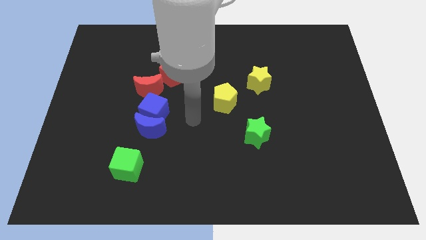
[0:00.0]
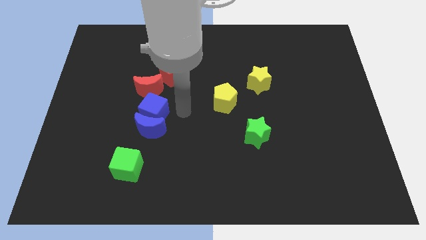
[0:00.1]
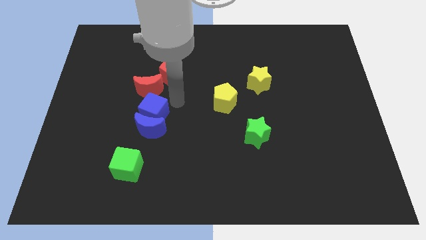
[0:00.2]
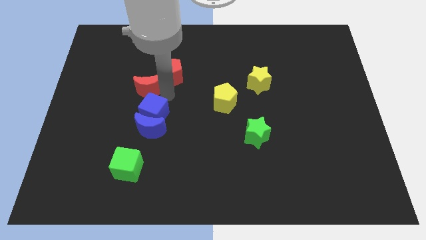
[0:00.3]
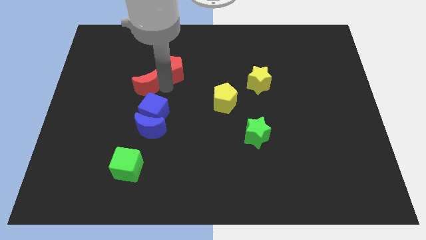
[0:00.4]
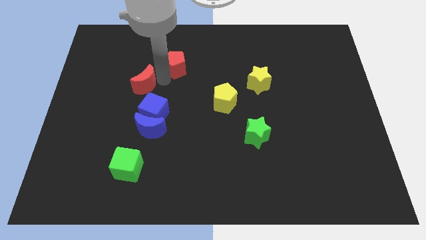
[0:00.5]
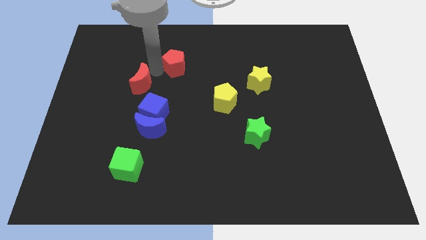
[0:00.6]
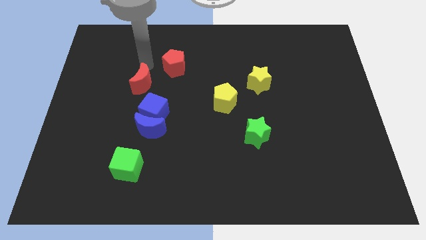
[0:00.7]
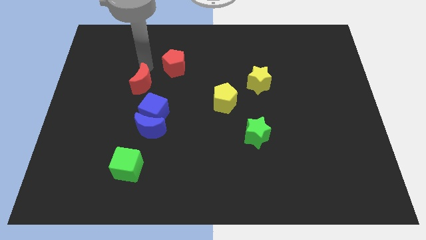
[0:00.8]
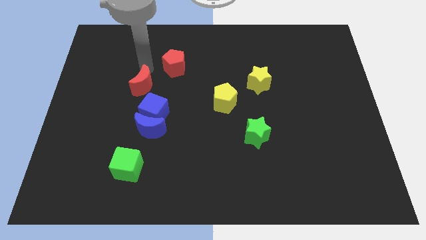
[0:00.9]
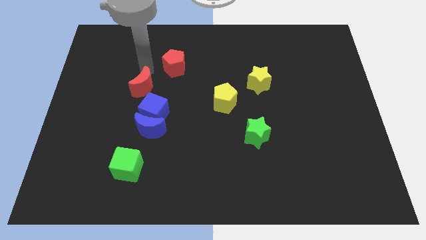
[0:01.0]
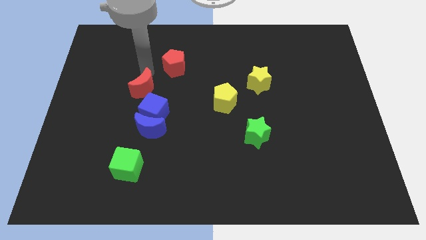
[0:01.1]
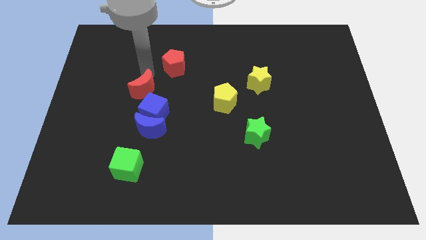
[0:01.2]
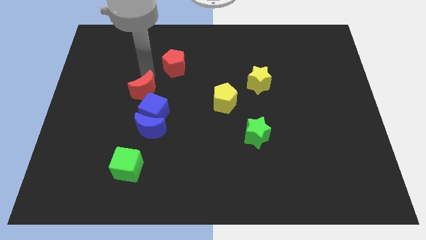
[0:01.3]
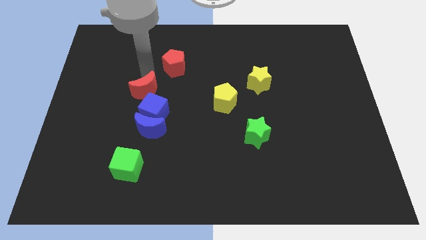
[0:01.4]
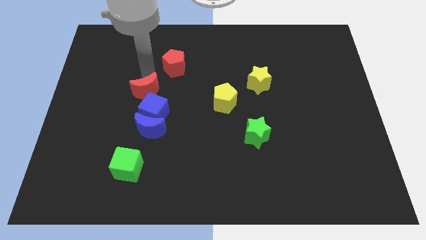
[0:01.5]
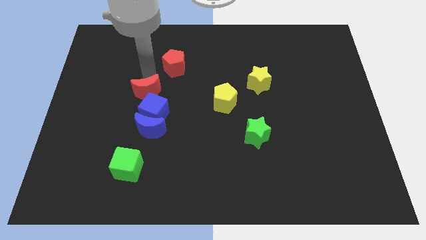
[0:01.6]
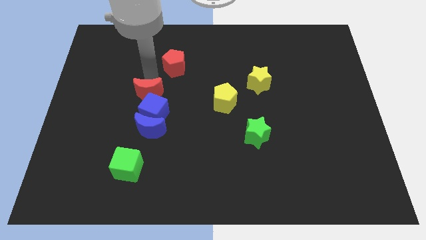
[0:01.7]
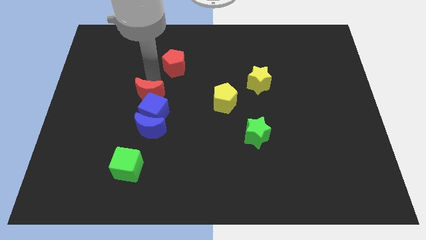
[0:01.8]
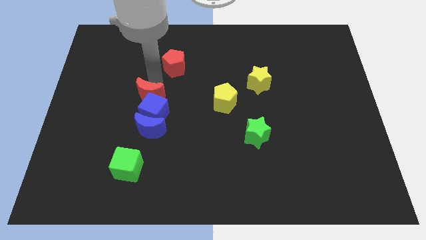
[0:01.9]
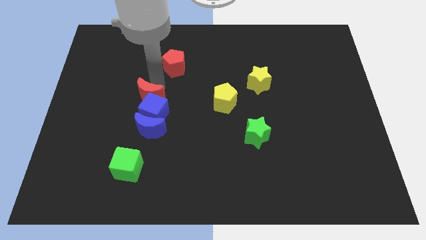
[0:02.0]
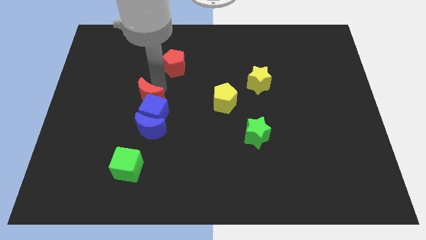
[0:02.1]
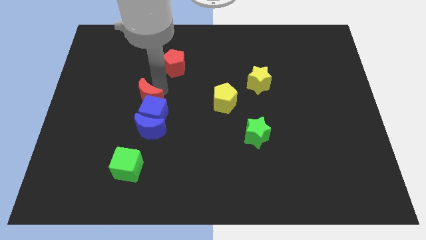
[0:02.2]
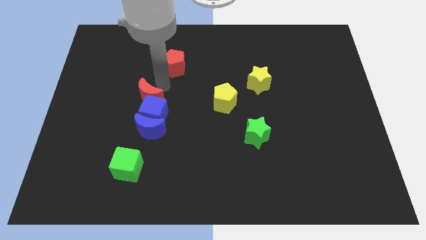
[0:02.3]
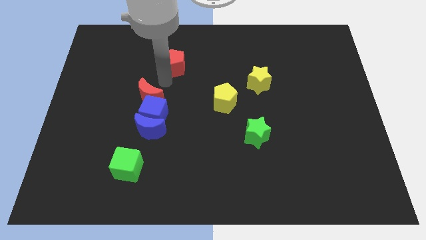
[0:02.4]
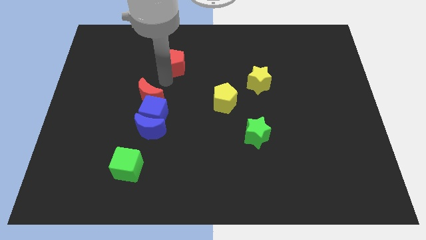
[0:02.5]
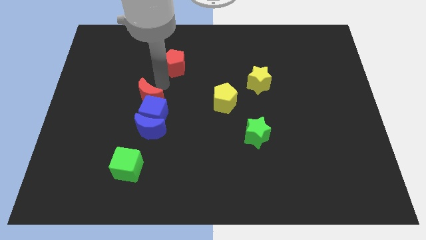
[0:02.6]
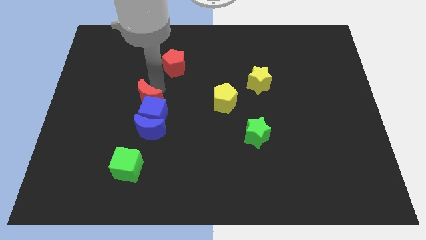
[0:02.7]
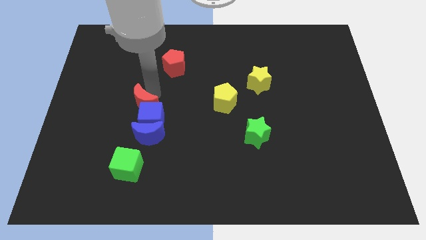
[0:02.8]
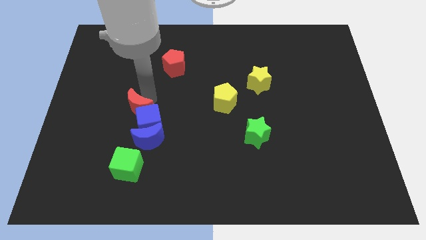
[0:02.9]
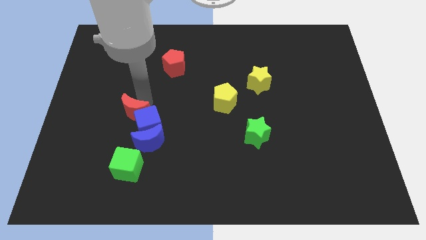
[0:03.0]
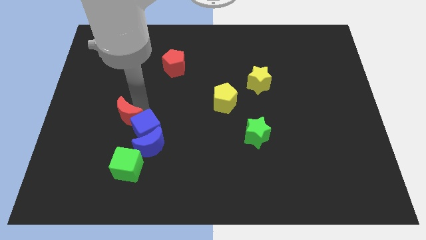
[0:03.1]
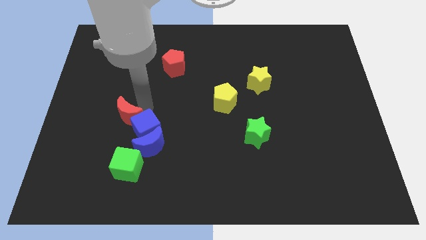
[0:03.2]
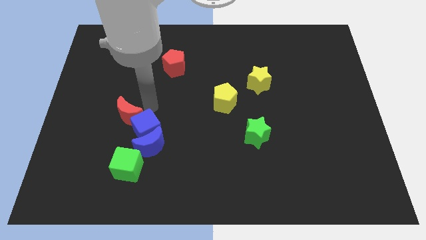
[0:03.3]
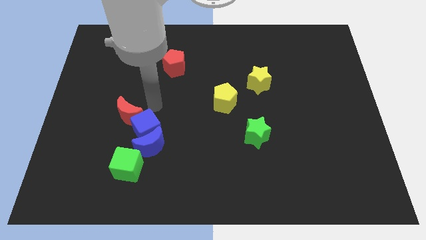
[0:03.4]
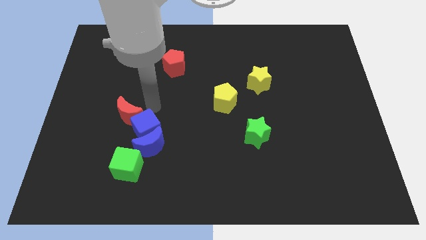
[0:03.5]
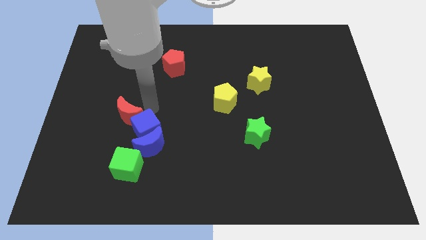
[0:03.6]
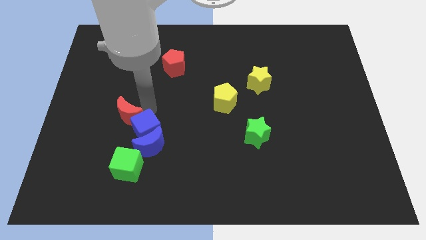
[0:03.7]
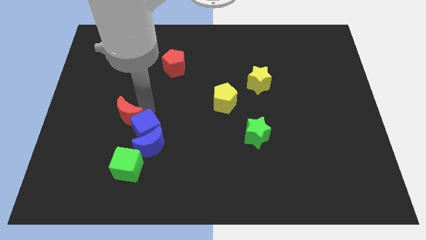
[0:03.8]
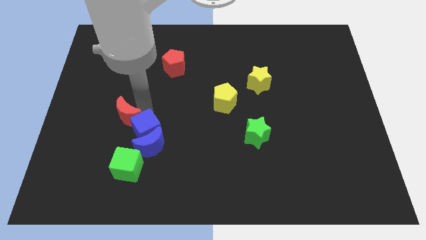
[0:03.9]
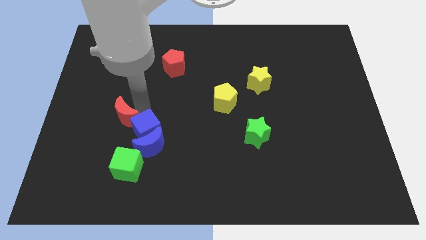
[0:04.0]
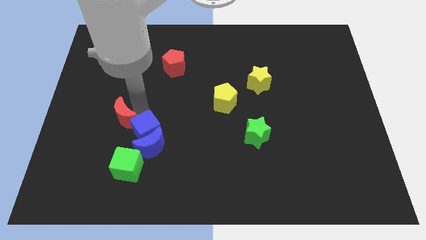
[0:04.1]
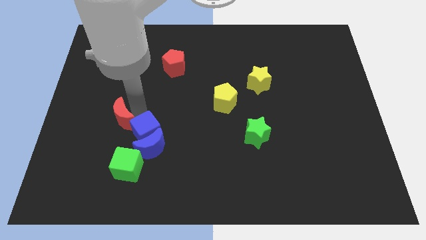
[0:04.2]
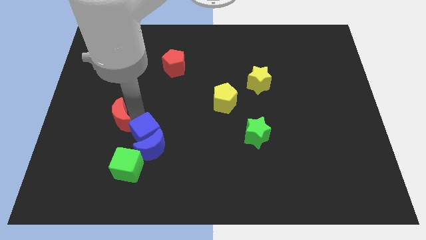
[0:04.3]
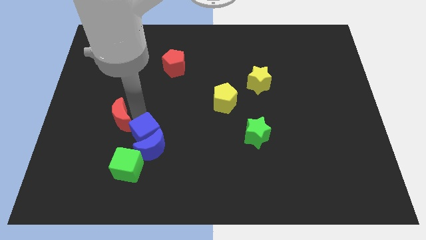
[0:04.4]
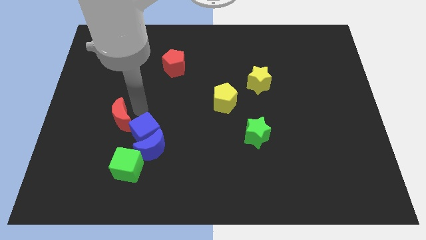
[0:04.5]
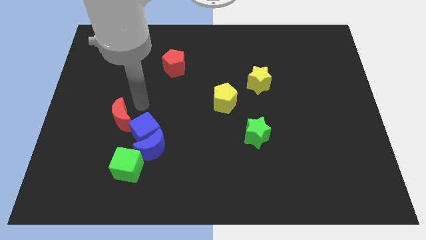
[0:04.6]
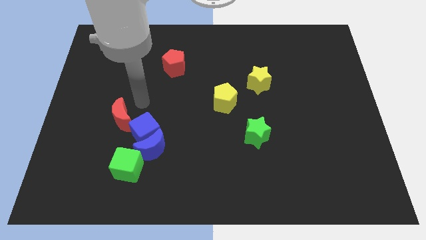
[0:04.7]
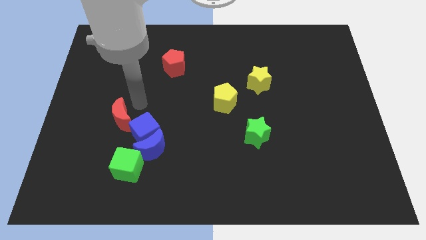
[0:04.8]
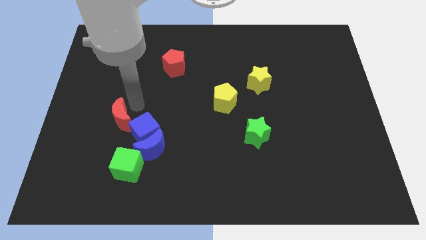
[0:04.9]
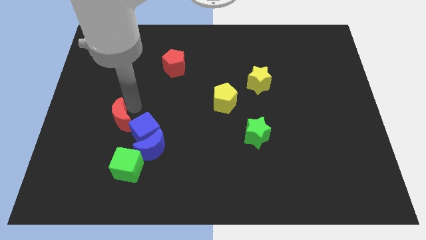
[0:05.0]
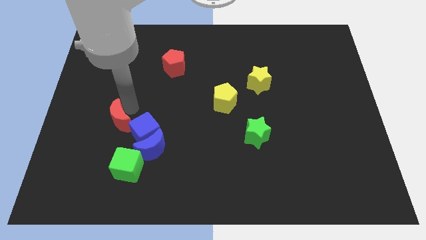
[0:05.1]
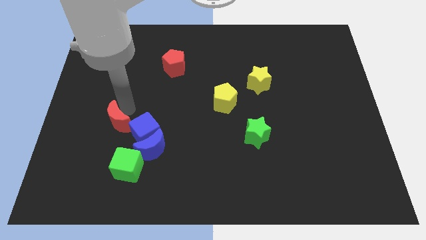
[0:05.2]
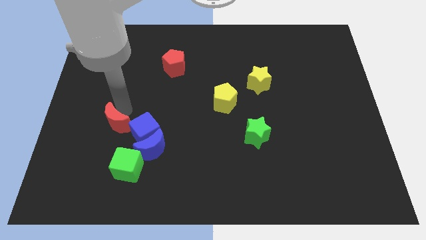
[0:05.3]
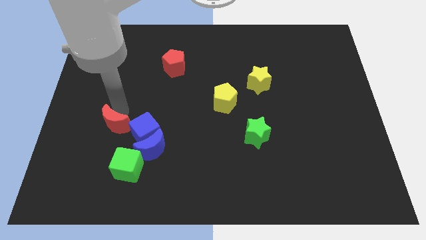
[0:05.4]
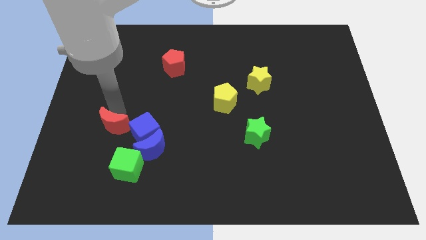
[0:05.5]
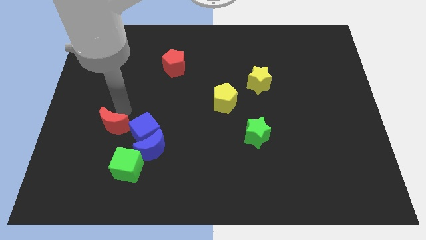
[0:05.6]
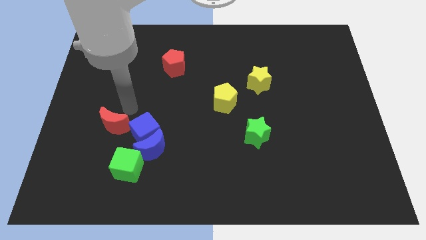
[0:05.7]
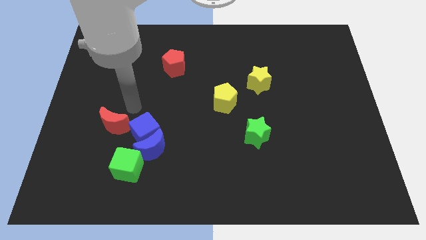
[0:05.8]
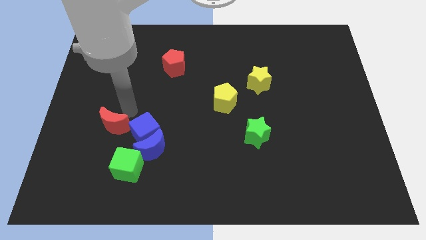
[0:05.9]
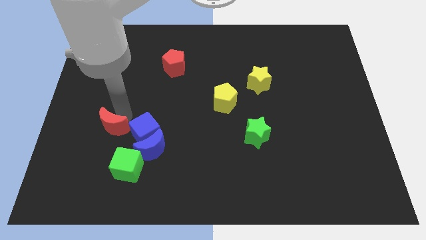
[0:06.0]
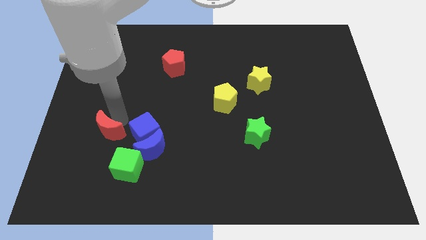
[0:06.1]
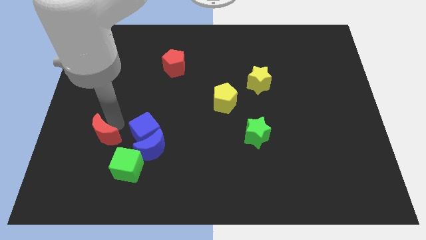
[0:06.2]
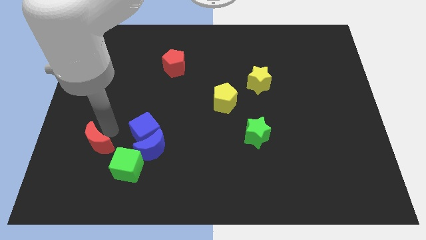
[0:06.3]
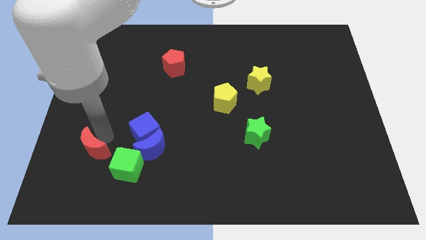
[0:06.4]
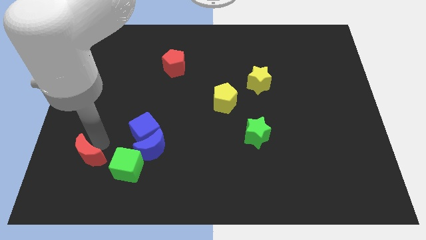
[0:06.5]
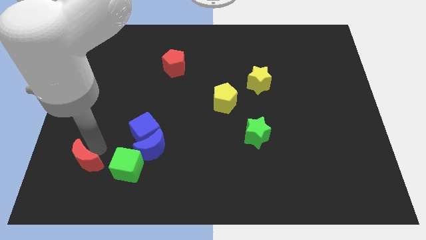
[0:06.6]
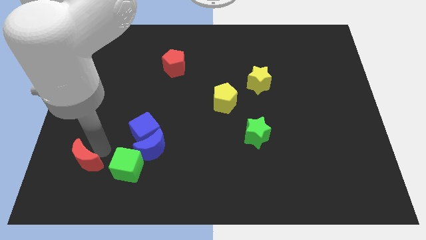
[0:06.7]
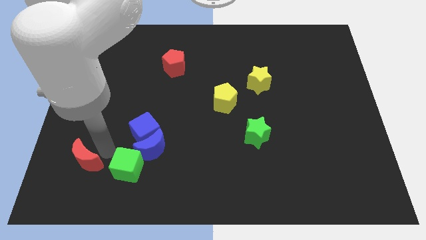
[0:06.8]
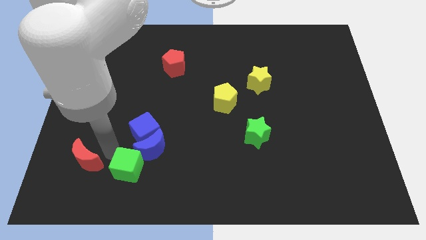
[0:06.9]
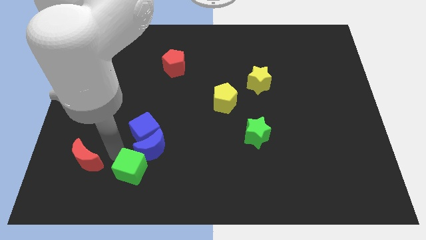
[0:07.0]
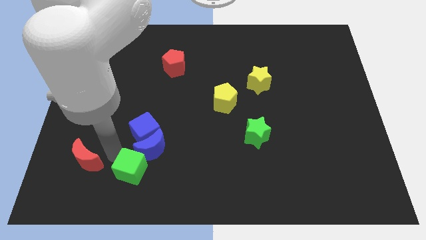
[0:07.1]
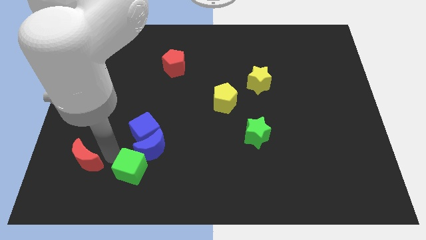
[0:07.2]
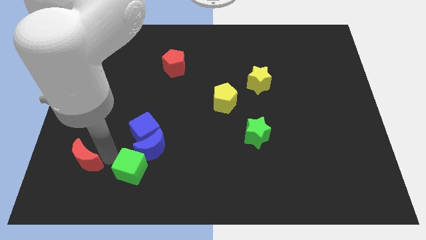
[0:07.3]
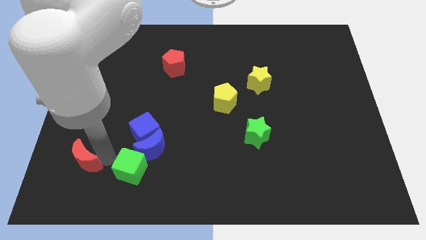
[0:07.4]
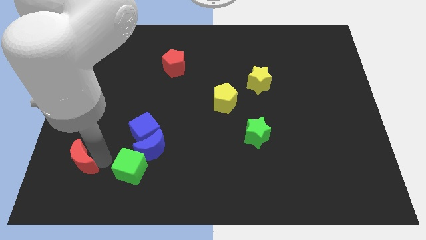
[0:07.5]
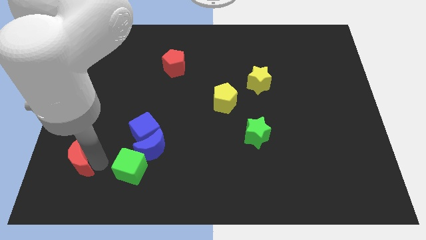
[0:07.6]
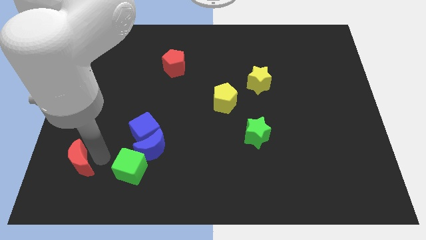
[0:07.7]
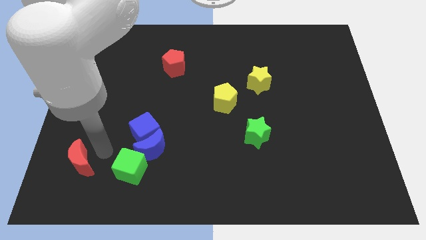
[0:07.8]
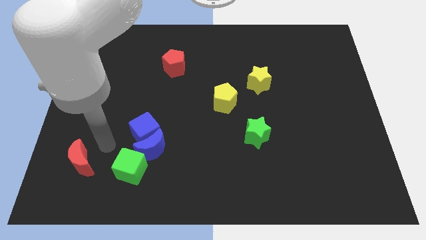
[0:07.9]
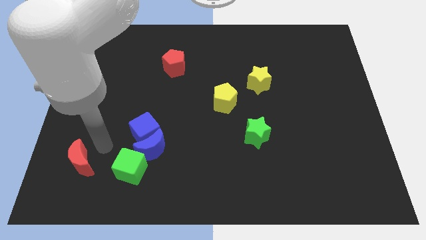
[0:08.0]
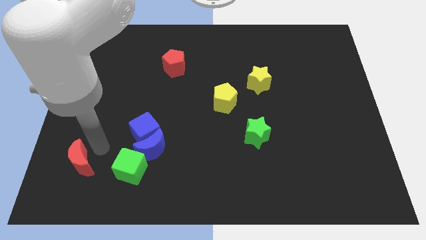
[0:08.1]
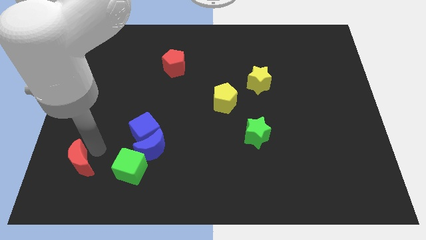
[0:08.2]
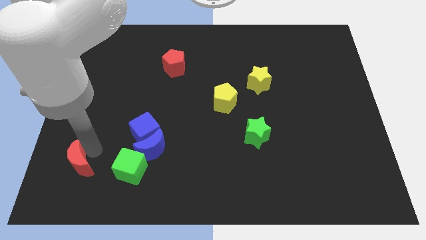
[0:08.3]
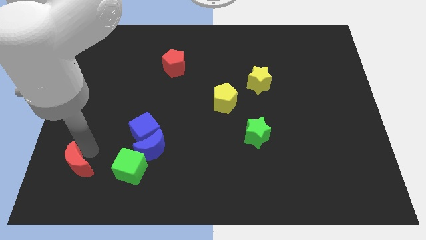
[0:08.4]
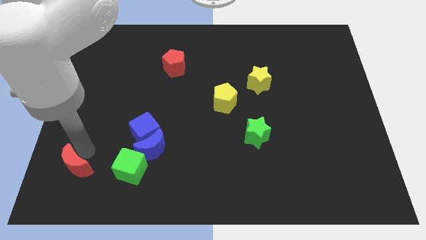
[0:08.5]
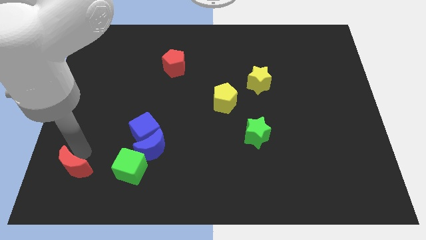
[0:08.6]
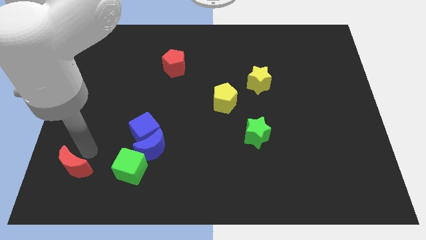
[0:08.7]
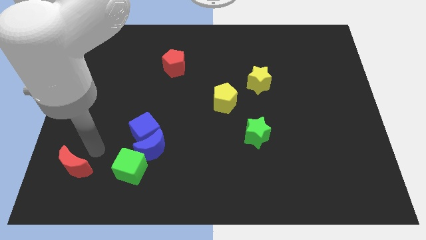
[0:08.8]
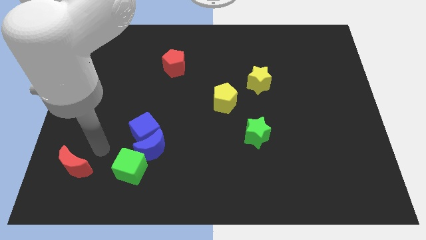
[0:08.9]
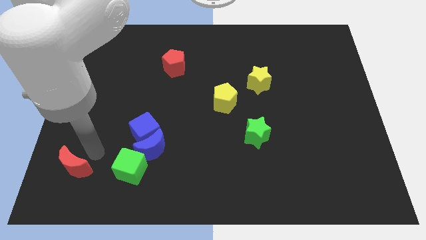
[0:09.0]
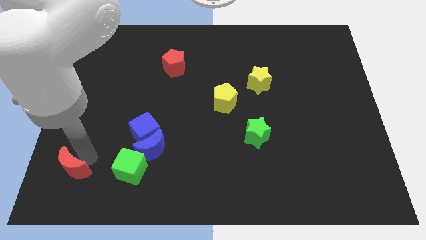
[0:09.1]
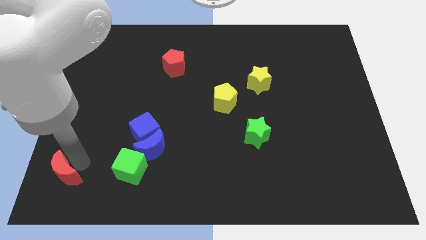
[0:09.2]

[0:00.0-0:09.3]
put the red moon to the bottom left
